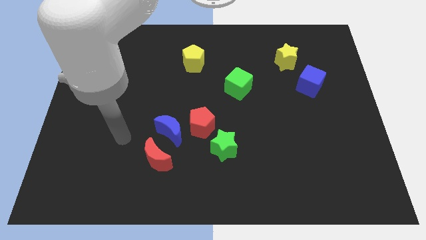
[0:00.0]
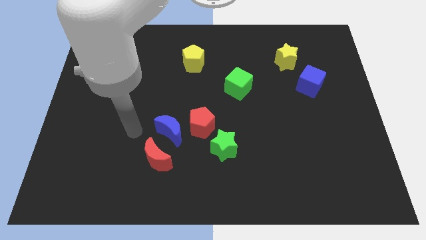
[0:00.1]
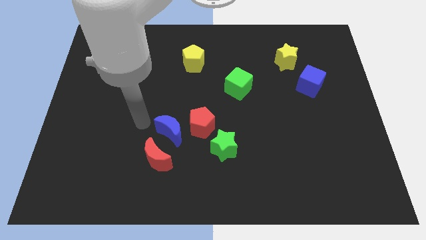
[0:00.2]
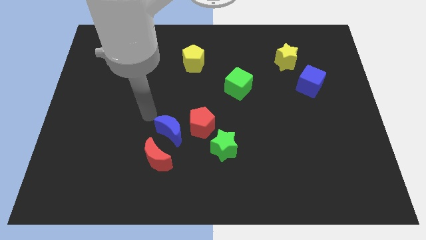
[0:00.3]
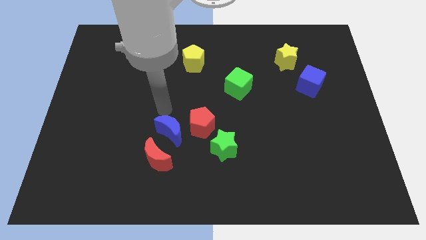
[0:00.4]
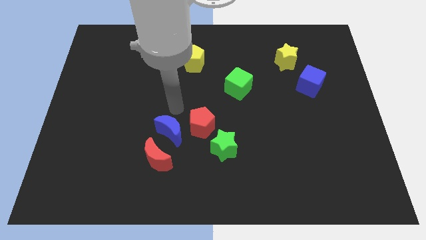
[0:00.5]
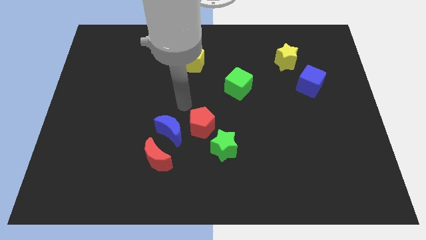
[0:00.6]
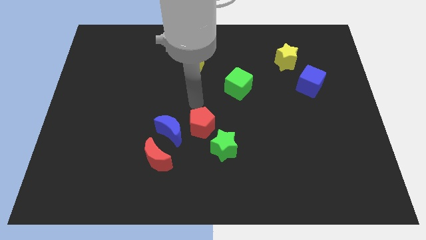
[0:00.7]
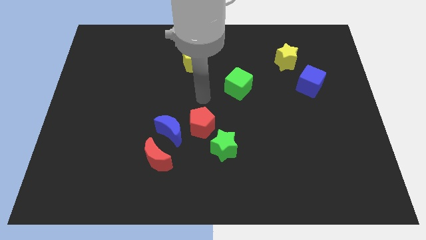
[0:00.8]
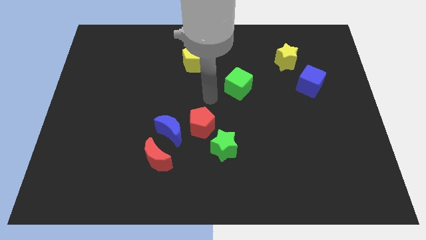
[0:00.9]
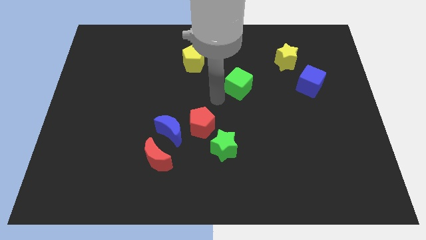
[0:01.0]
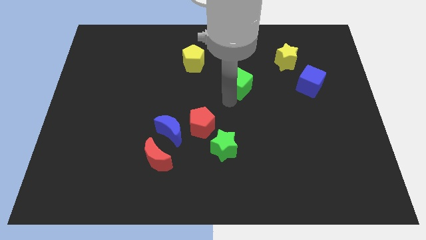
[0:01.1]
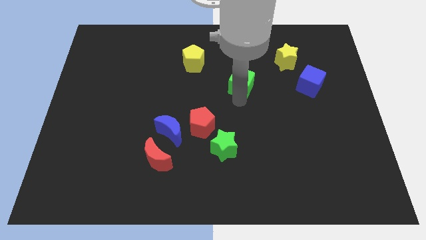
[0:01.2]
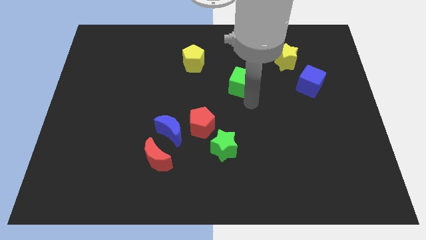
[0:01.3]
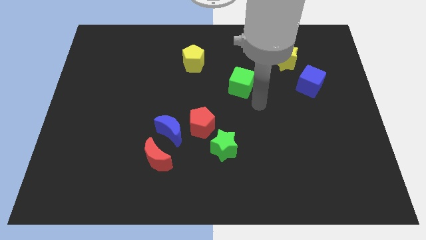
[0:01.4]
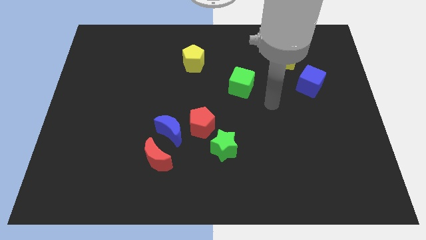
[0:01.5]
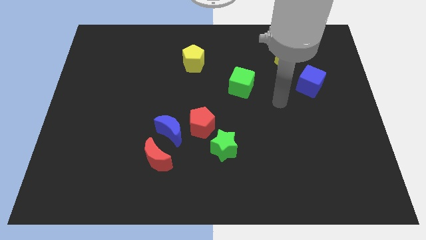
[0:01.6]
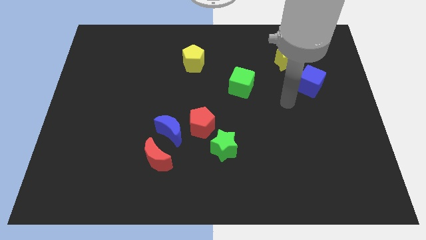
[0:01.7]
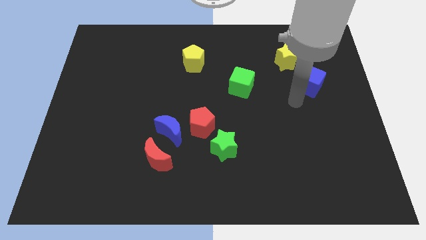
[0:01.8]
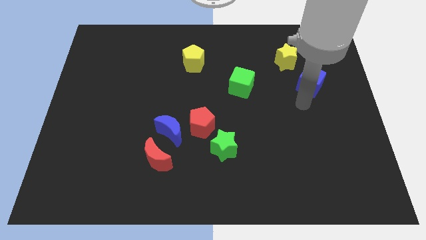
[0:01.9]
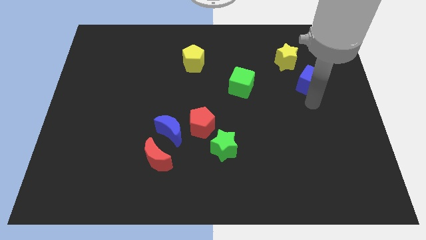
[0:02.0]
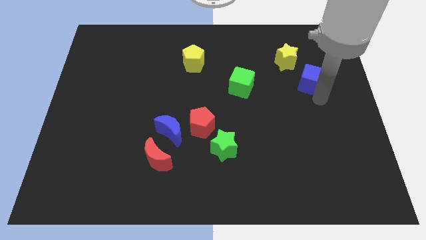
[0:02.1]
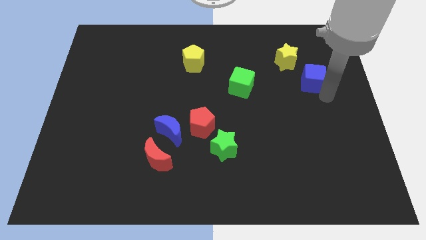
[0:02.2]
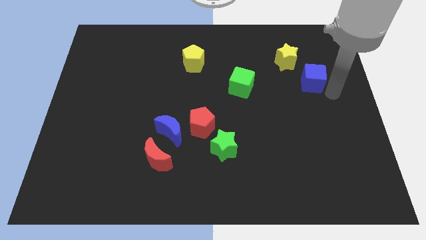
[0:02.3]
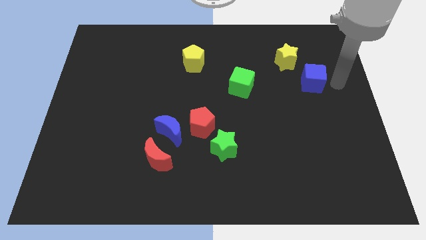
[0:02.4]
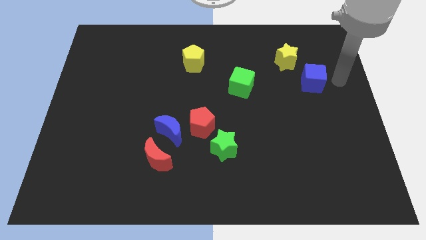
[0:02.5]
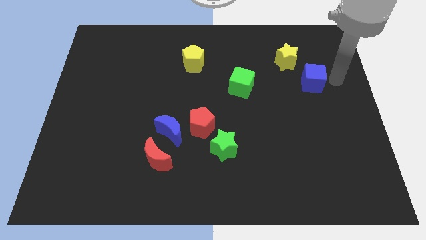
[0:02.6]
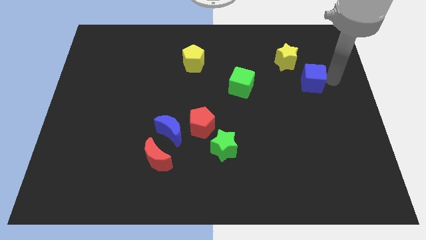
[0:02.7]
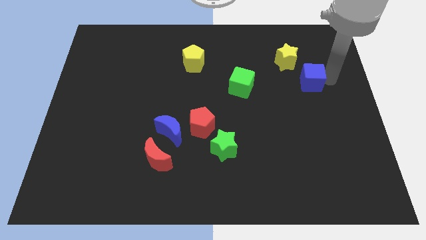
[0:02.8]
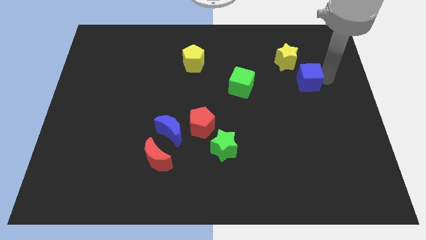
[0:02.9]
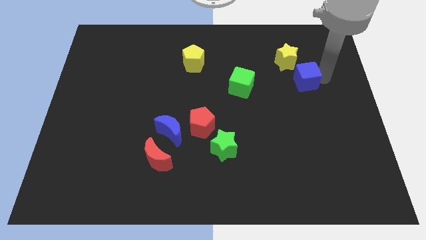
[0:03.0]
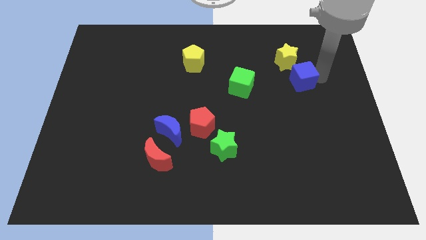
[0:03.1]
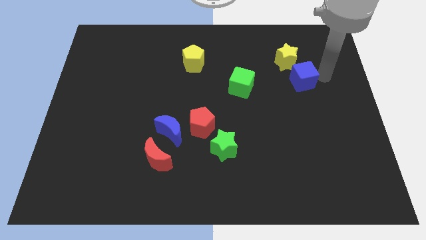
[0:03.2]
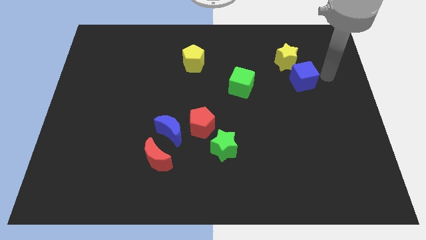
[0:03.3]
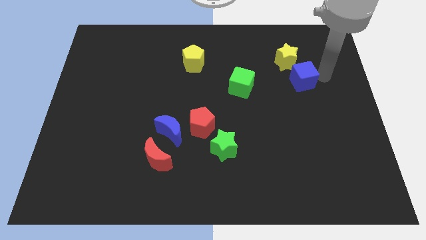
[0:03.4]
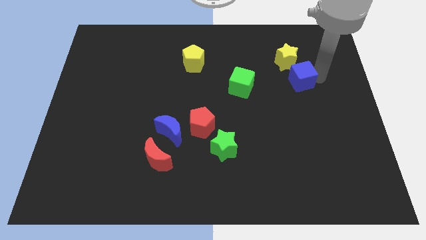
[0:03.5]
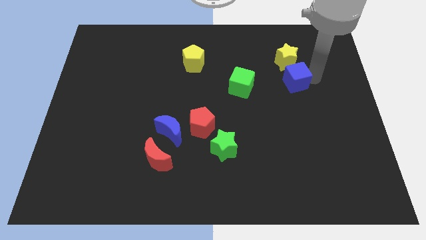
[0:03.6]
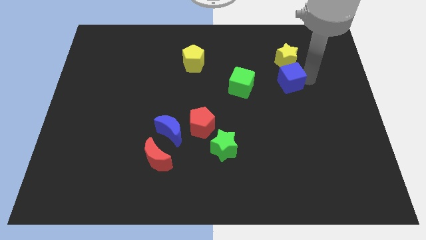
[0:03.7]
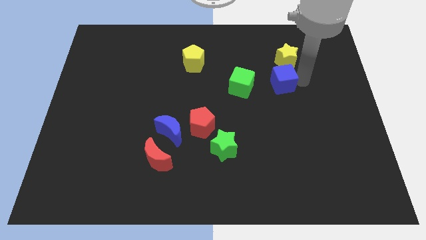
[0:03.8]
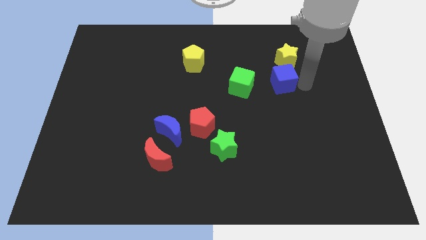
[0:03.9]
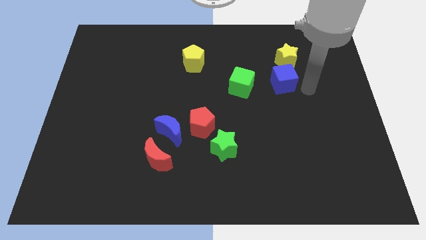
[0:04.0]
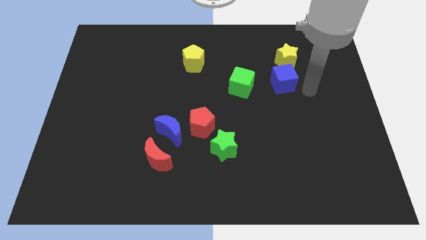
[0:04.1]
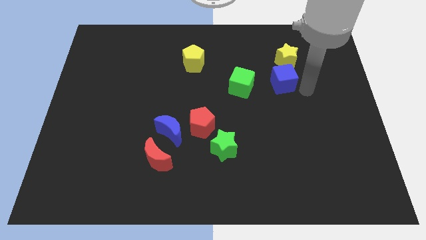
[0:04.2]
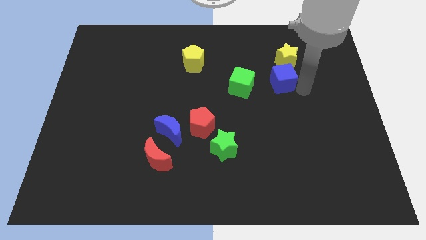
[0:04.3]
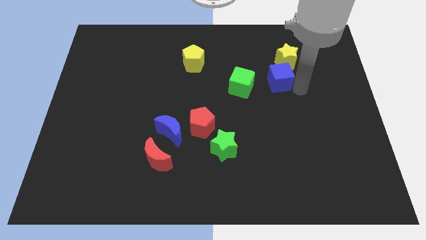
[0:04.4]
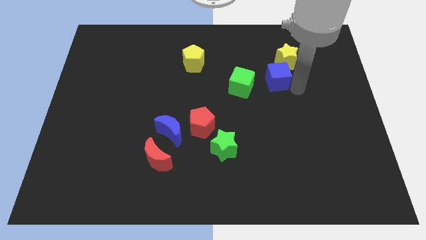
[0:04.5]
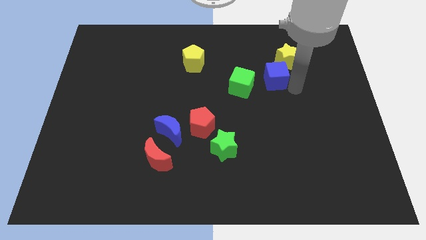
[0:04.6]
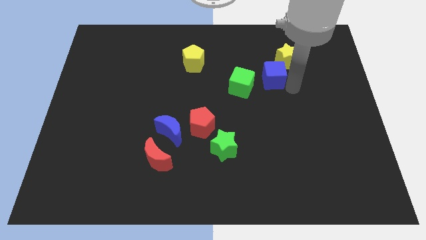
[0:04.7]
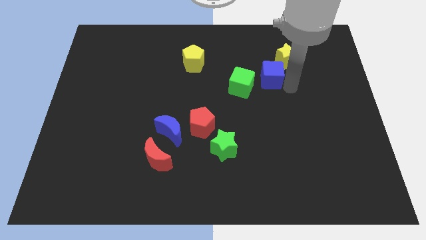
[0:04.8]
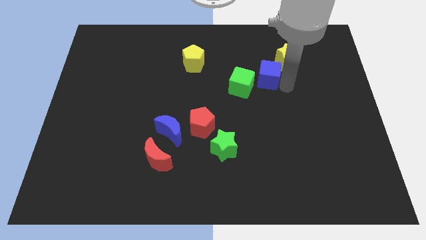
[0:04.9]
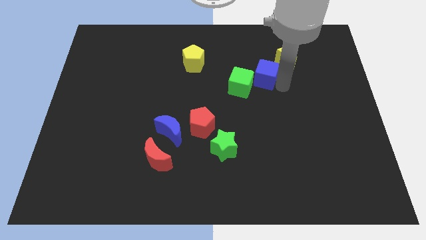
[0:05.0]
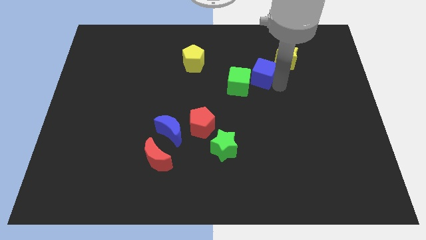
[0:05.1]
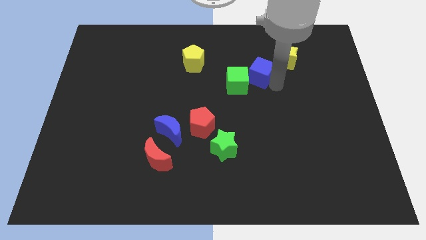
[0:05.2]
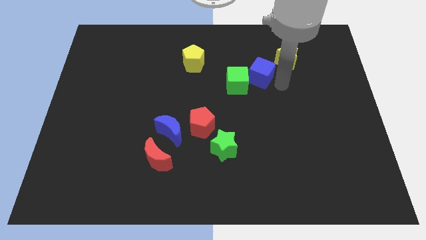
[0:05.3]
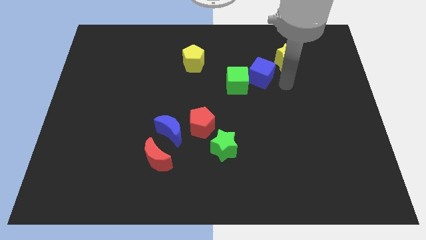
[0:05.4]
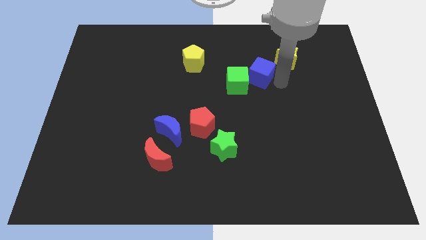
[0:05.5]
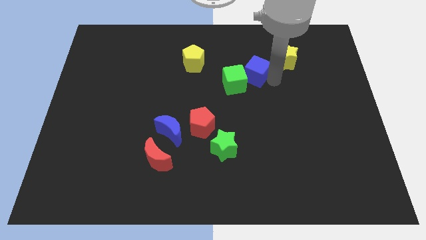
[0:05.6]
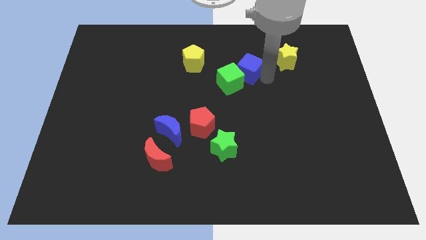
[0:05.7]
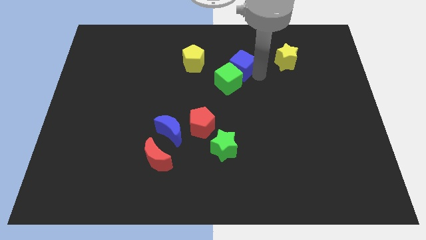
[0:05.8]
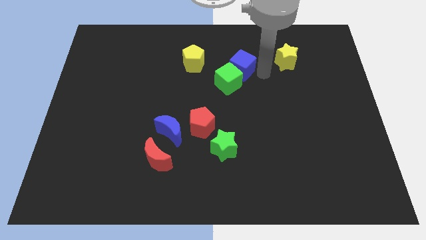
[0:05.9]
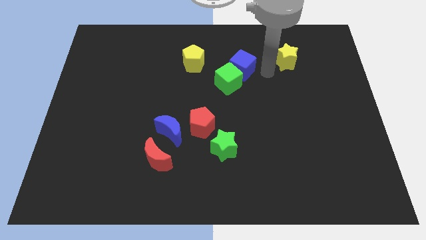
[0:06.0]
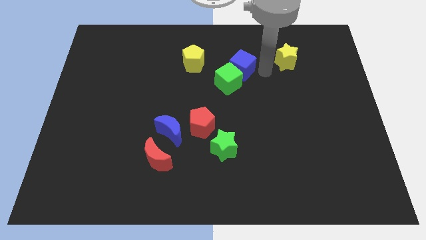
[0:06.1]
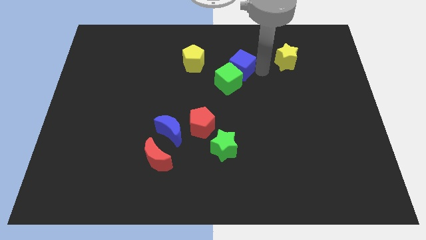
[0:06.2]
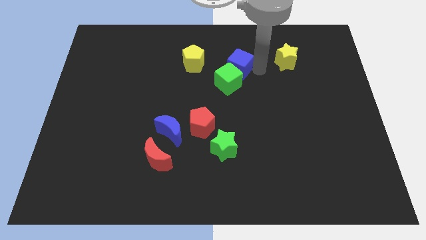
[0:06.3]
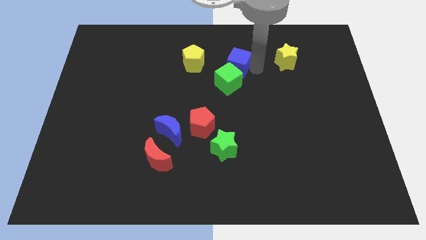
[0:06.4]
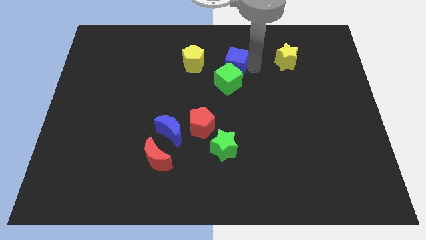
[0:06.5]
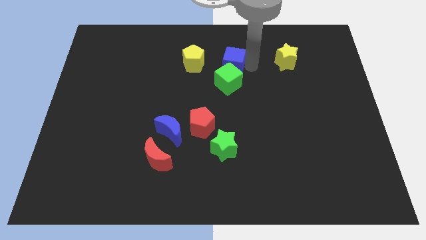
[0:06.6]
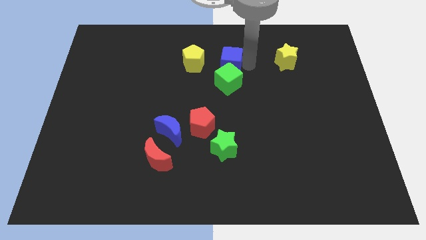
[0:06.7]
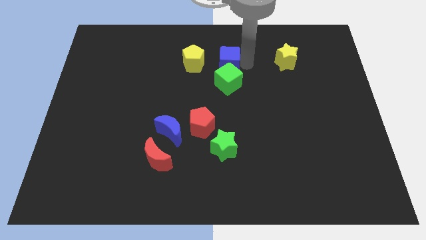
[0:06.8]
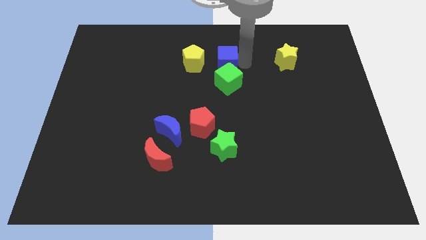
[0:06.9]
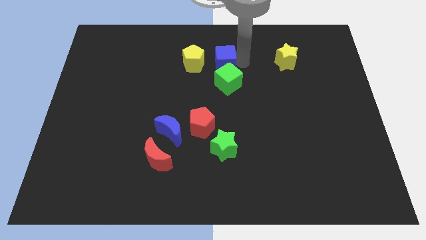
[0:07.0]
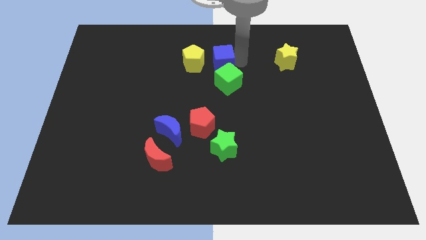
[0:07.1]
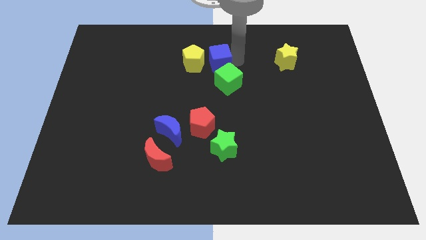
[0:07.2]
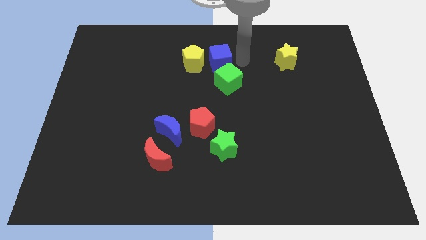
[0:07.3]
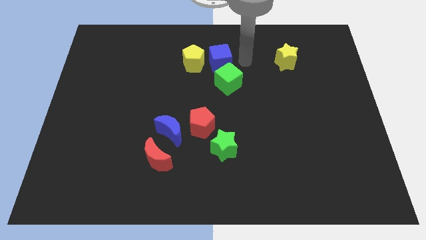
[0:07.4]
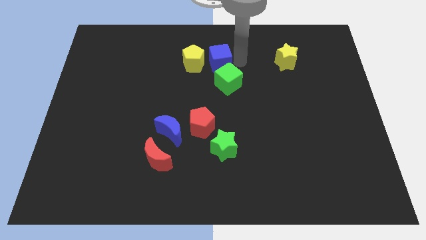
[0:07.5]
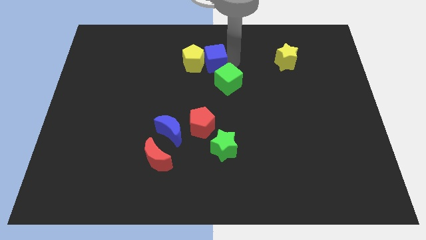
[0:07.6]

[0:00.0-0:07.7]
push the blue cube close to the yellow pentagon
